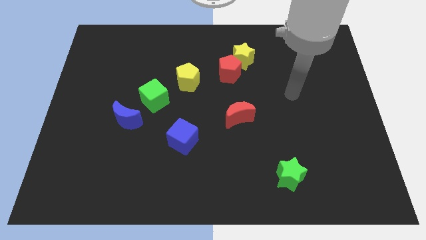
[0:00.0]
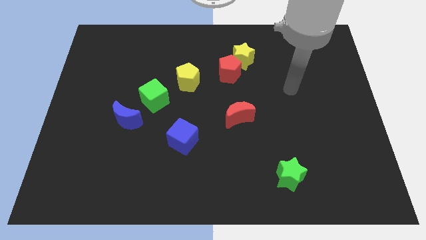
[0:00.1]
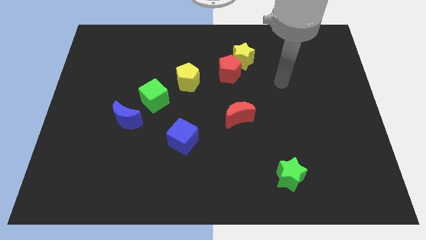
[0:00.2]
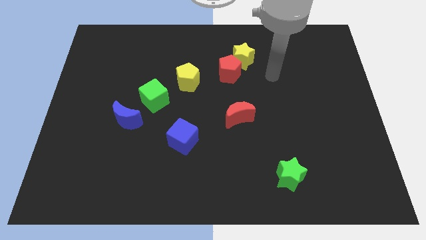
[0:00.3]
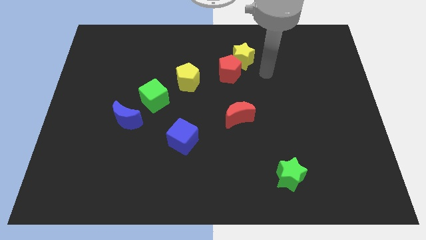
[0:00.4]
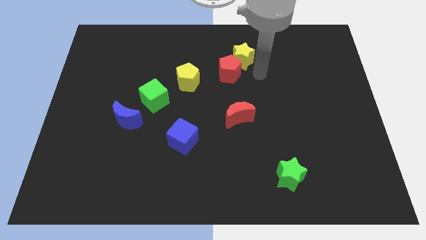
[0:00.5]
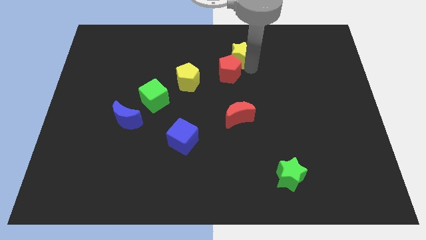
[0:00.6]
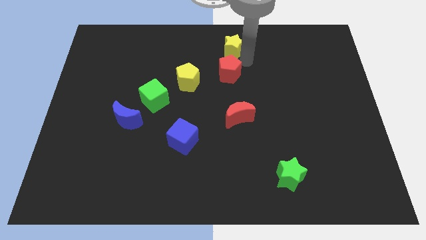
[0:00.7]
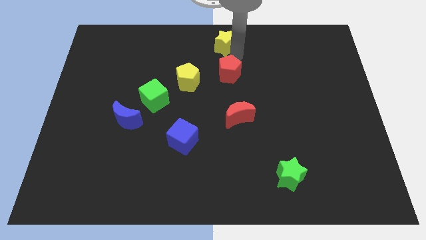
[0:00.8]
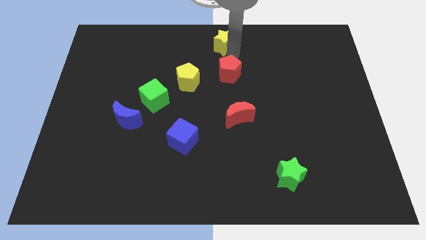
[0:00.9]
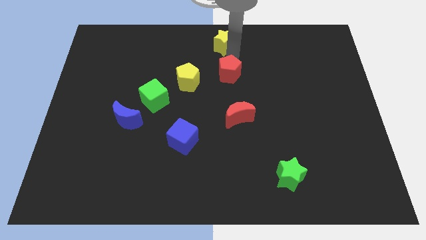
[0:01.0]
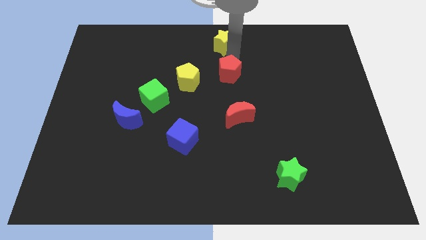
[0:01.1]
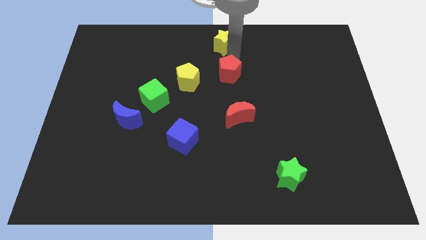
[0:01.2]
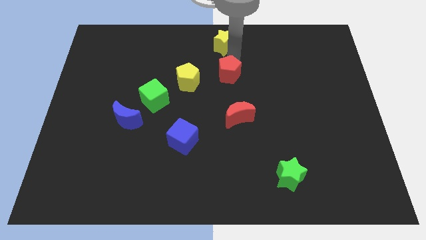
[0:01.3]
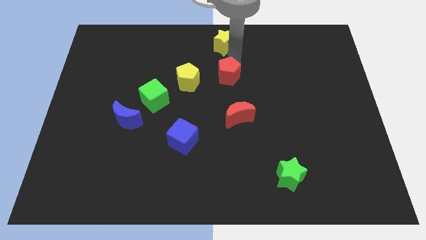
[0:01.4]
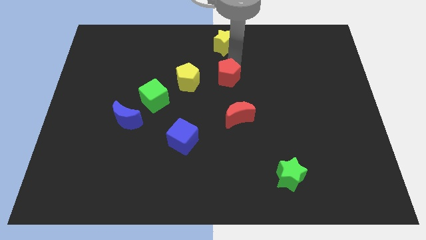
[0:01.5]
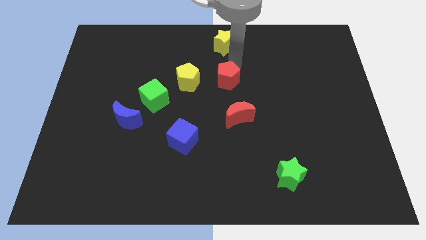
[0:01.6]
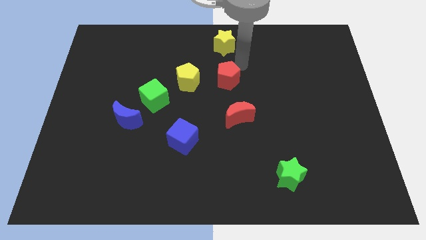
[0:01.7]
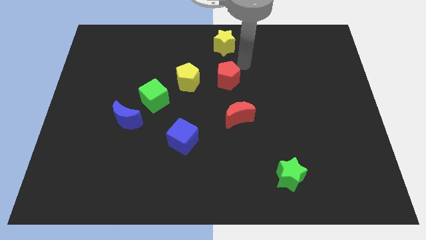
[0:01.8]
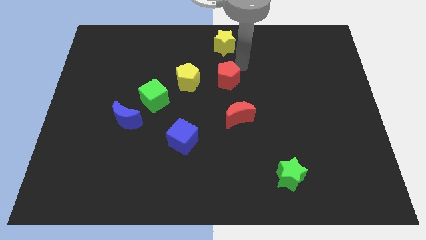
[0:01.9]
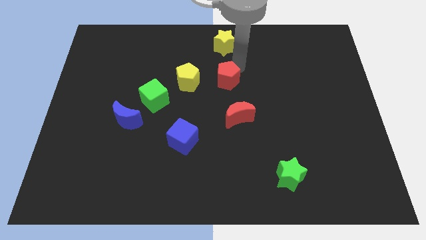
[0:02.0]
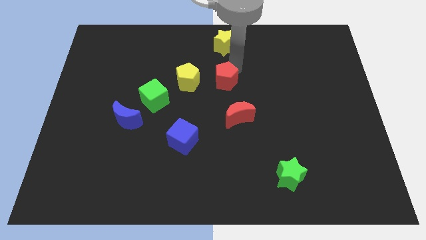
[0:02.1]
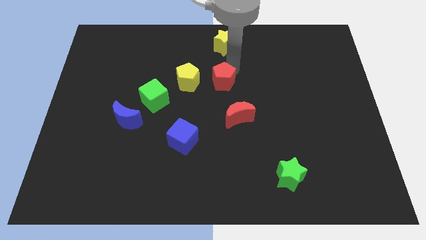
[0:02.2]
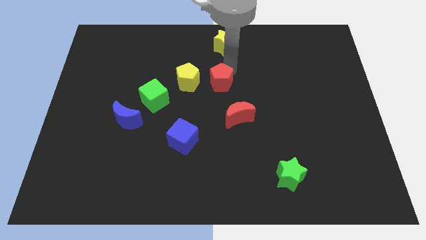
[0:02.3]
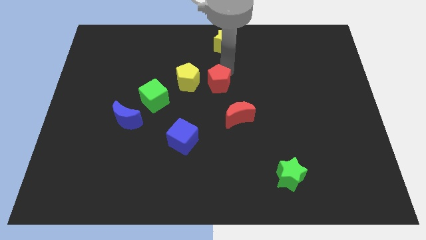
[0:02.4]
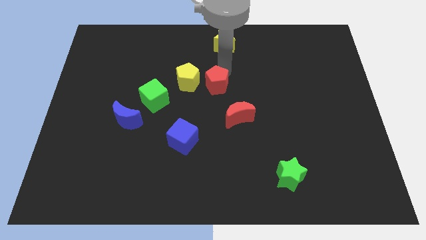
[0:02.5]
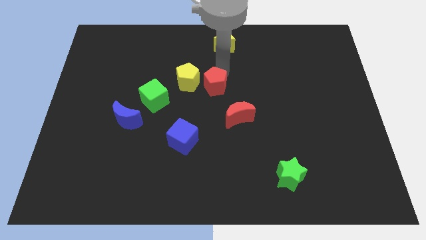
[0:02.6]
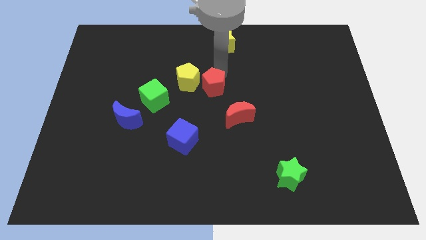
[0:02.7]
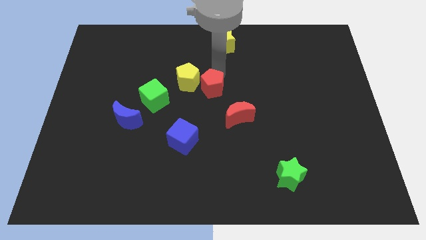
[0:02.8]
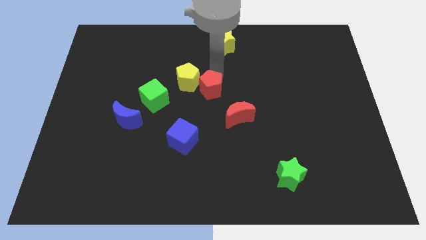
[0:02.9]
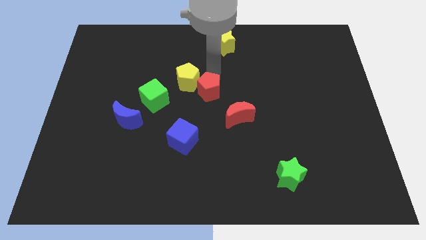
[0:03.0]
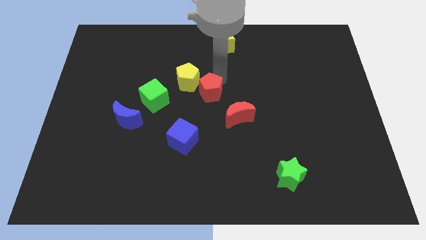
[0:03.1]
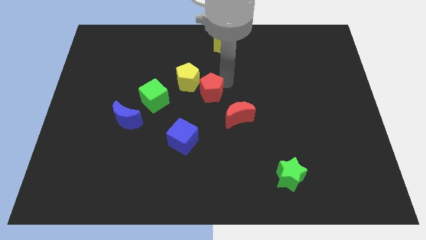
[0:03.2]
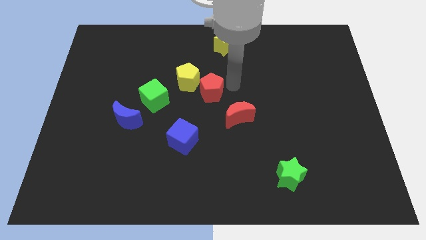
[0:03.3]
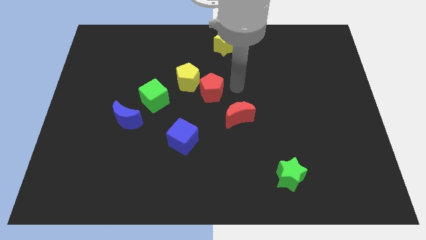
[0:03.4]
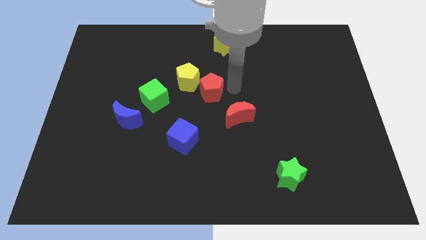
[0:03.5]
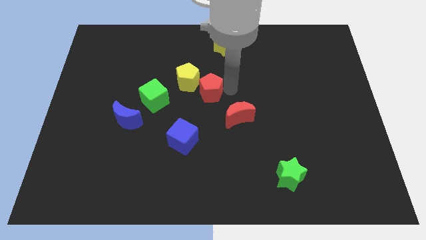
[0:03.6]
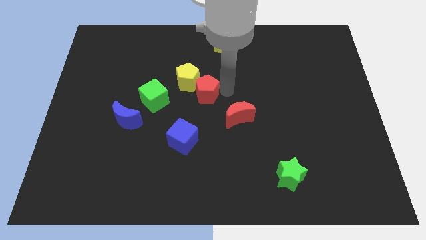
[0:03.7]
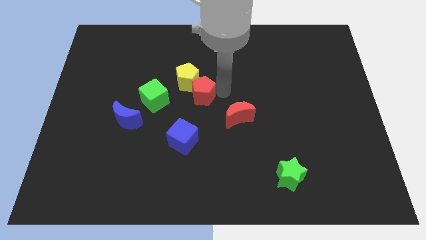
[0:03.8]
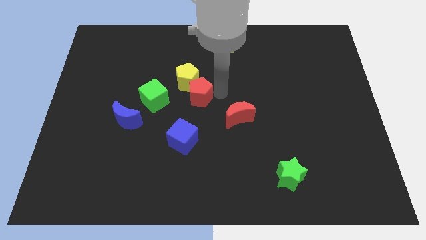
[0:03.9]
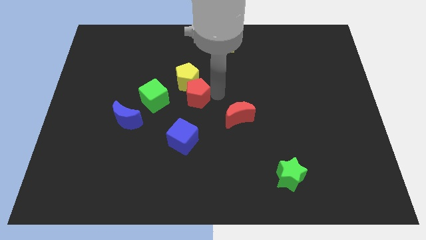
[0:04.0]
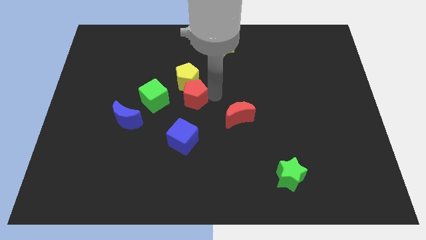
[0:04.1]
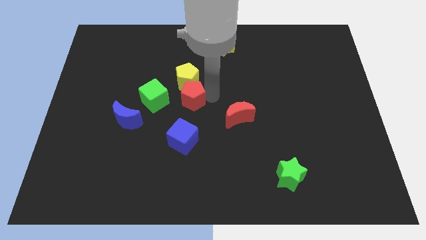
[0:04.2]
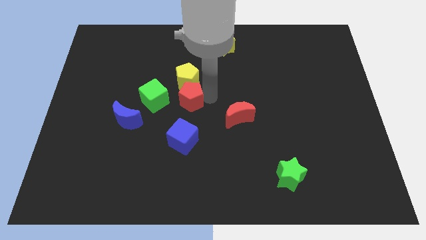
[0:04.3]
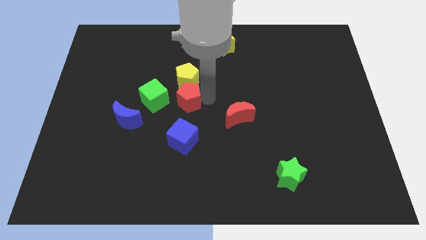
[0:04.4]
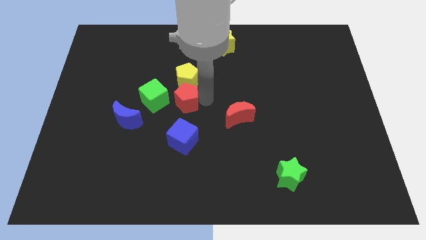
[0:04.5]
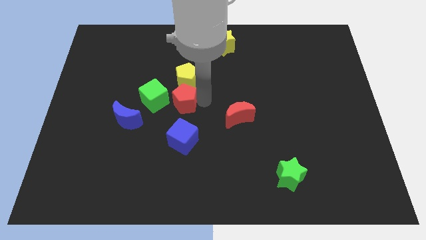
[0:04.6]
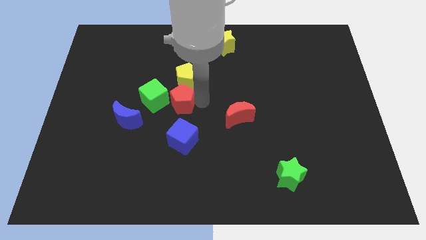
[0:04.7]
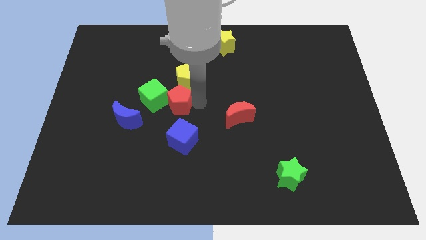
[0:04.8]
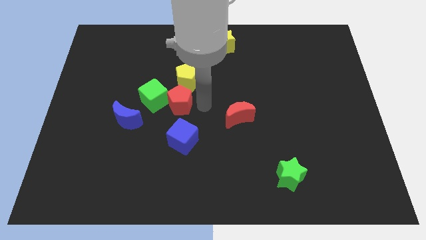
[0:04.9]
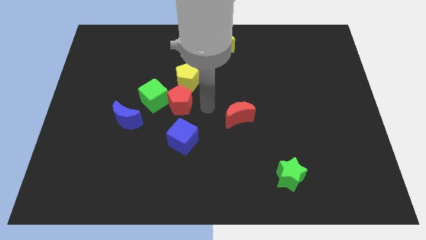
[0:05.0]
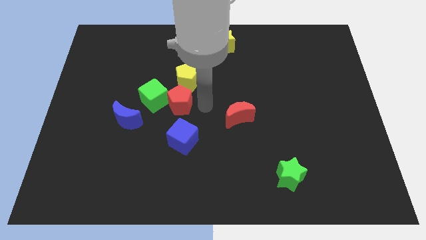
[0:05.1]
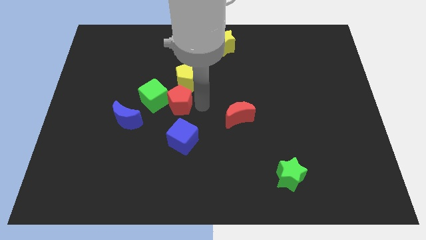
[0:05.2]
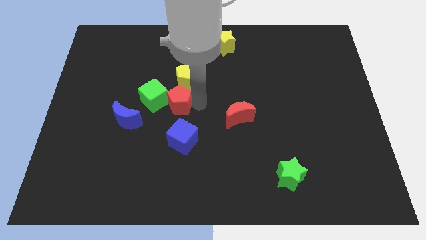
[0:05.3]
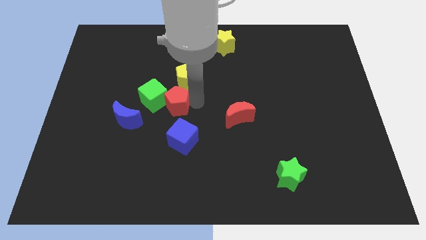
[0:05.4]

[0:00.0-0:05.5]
push the red pentagon next to the green cube
